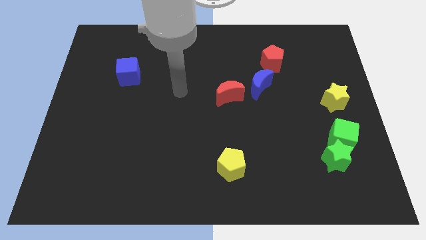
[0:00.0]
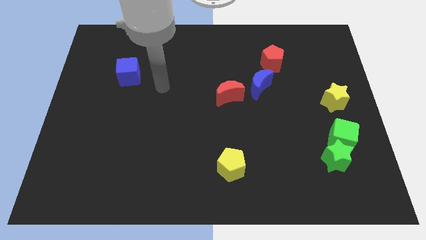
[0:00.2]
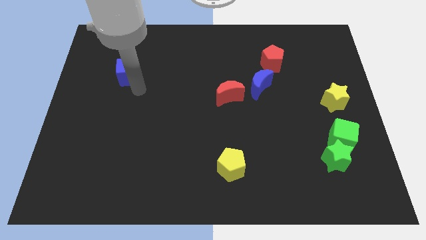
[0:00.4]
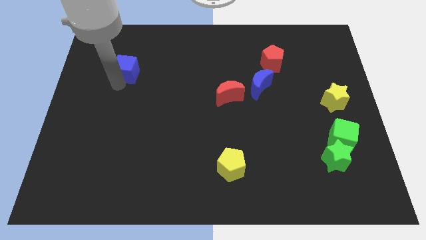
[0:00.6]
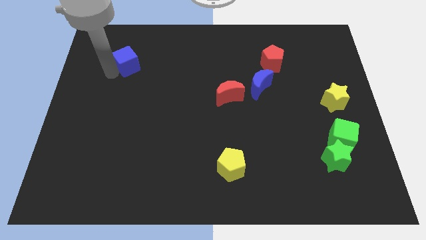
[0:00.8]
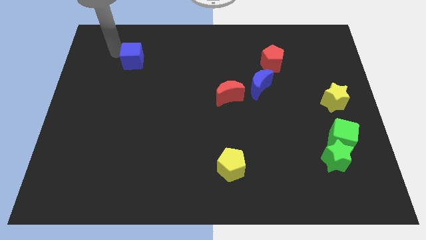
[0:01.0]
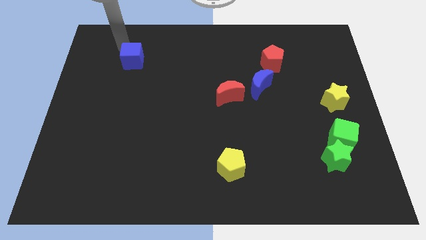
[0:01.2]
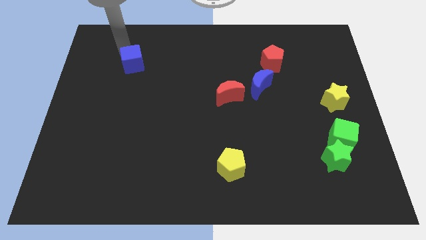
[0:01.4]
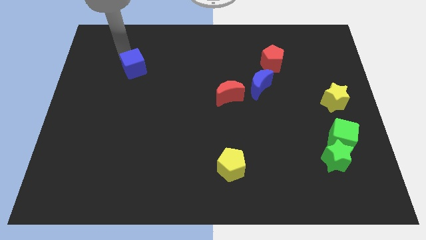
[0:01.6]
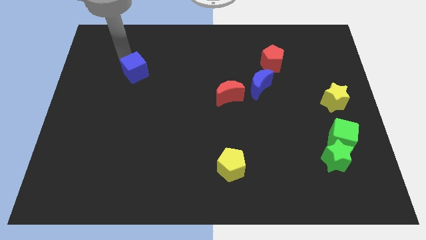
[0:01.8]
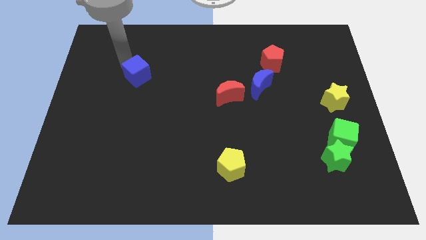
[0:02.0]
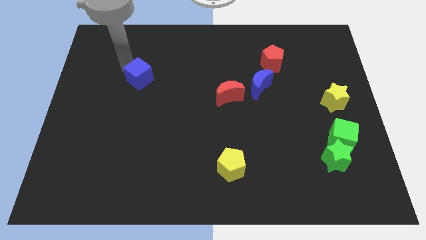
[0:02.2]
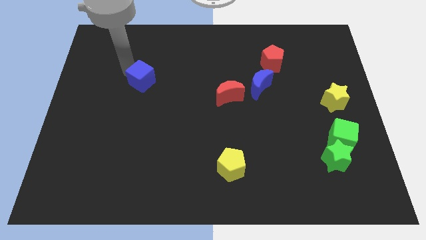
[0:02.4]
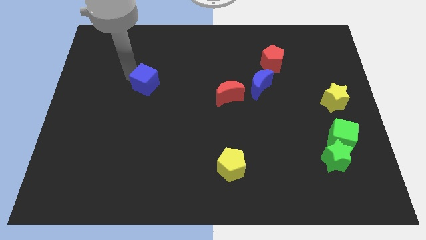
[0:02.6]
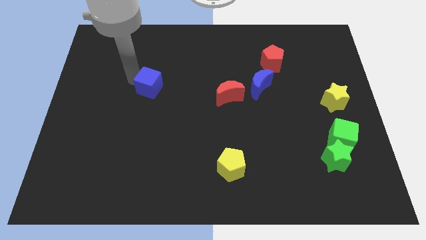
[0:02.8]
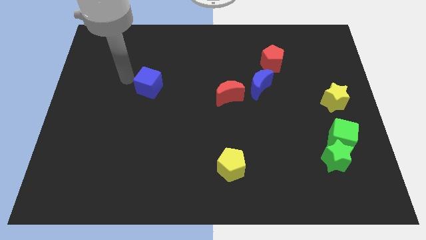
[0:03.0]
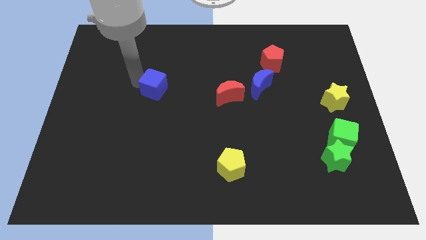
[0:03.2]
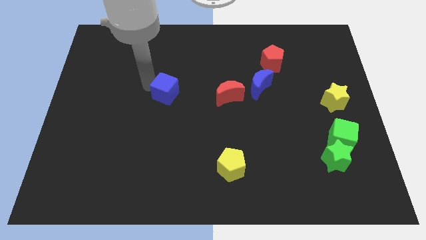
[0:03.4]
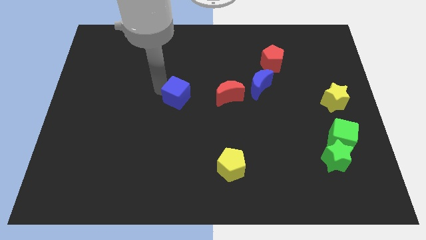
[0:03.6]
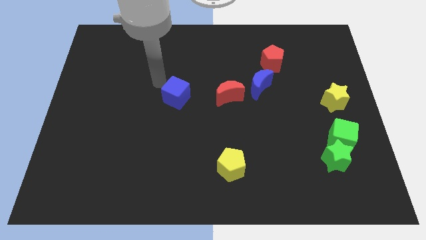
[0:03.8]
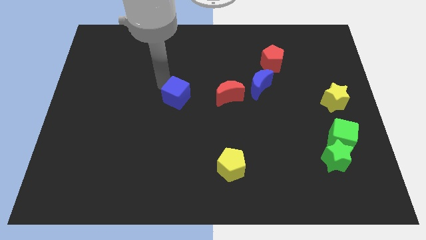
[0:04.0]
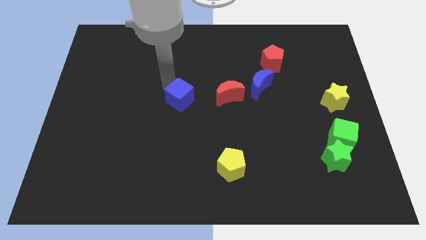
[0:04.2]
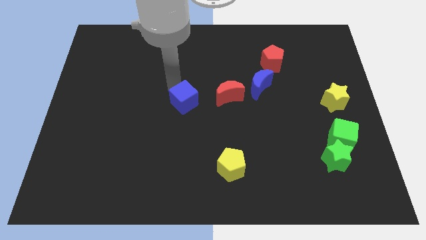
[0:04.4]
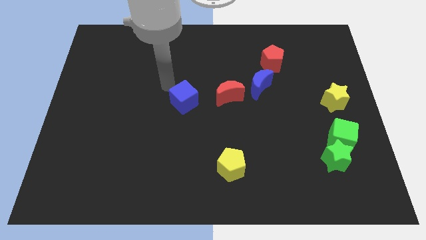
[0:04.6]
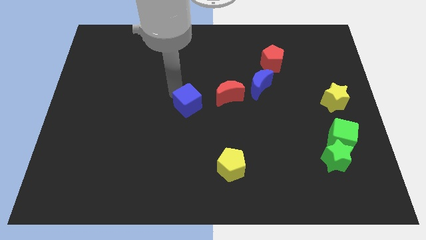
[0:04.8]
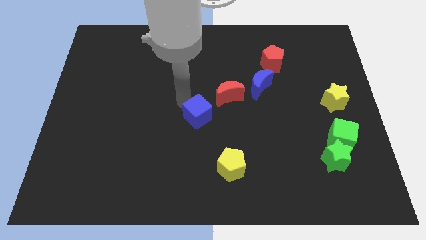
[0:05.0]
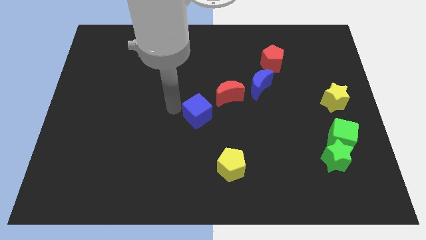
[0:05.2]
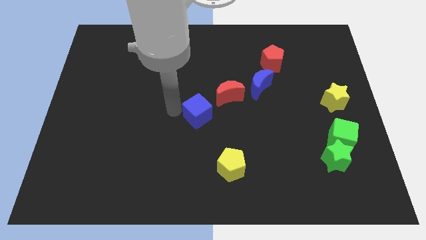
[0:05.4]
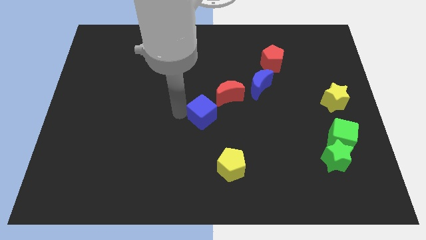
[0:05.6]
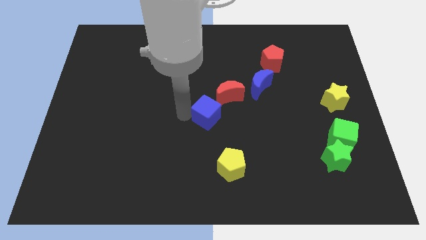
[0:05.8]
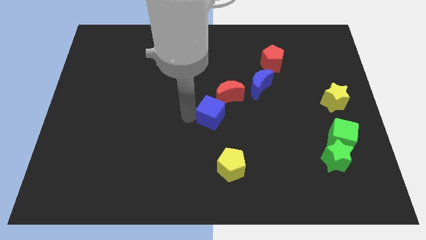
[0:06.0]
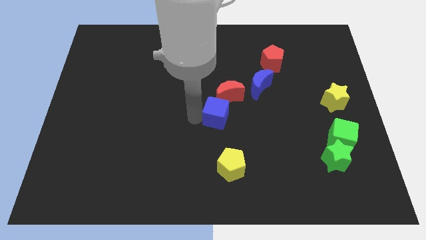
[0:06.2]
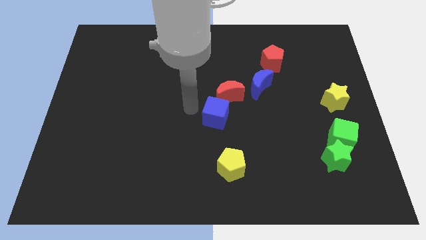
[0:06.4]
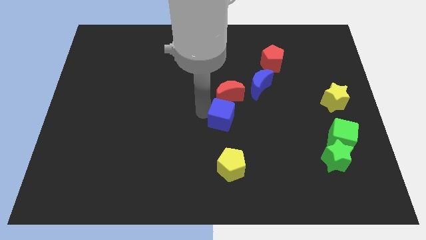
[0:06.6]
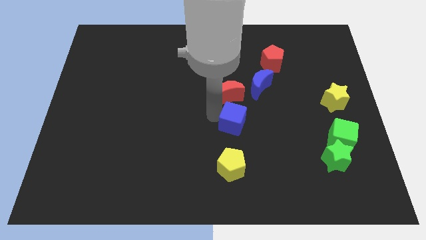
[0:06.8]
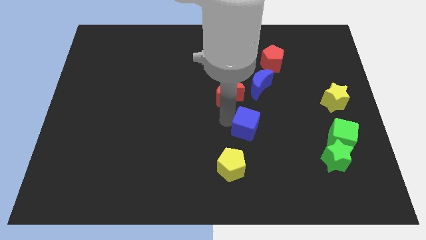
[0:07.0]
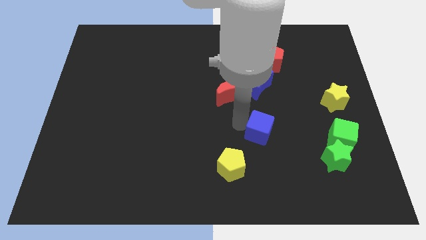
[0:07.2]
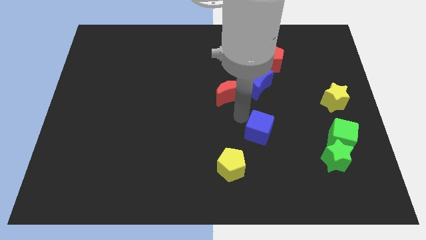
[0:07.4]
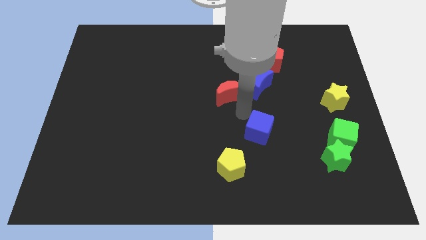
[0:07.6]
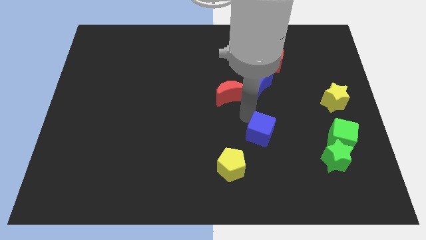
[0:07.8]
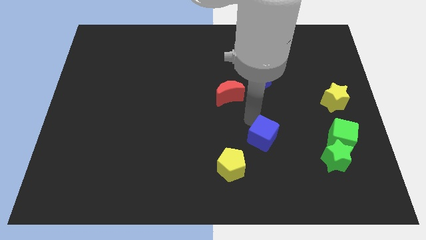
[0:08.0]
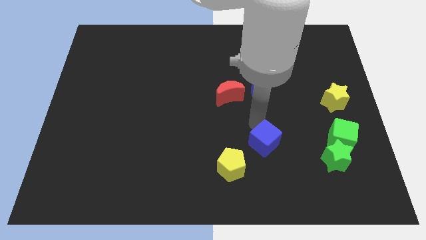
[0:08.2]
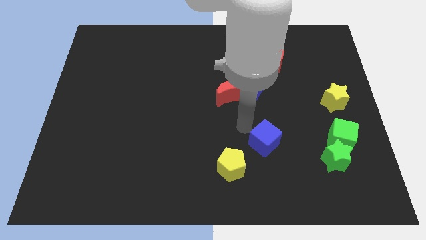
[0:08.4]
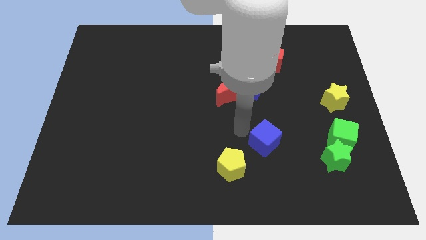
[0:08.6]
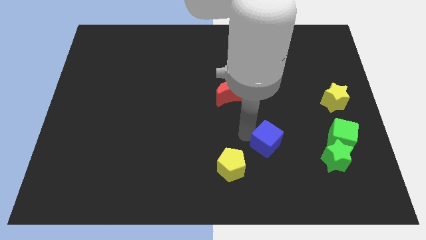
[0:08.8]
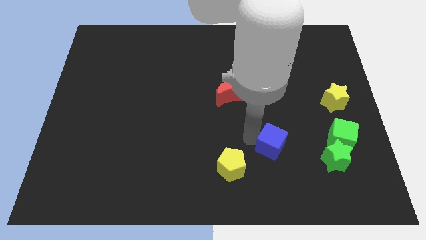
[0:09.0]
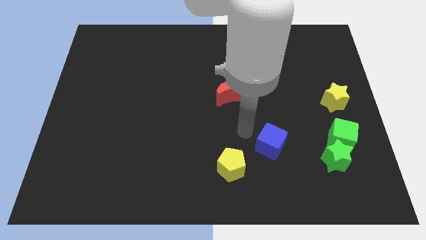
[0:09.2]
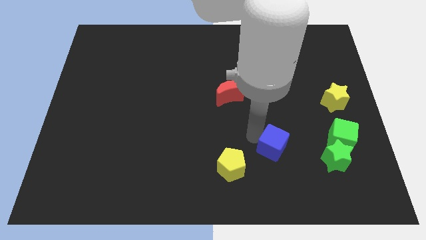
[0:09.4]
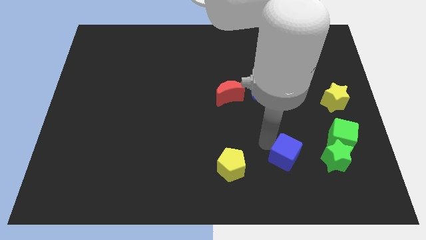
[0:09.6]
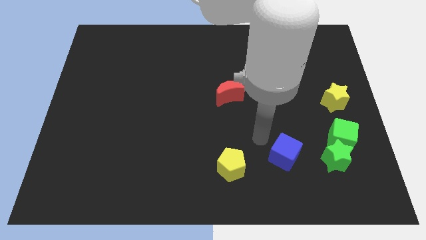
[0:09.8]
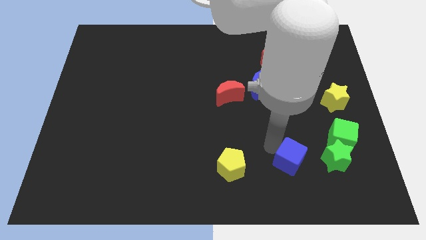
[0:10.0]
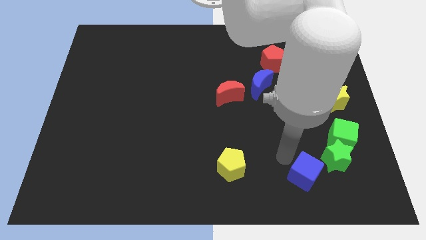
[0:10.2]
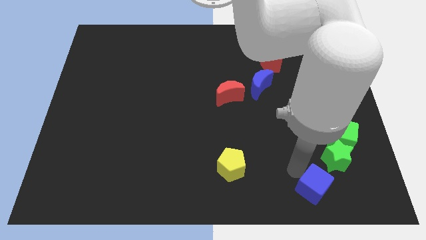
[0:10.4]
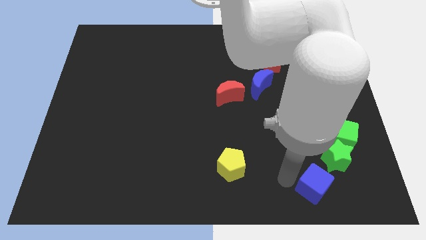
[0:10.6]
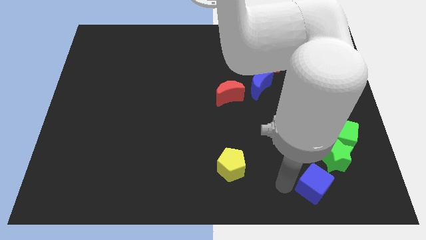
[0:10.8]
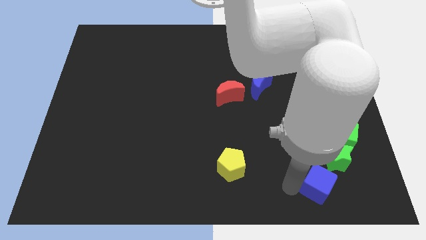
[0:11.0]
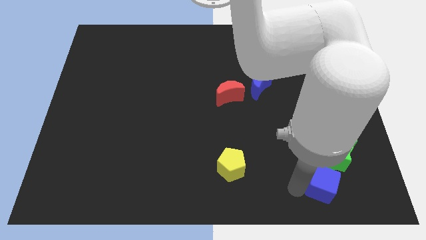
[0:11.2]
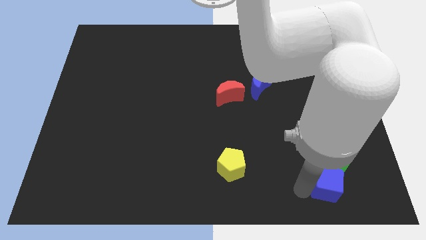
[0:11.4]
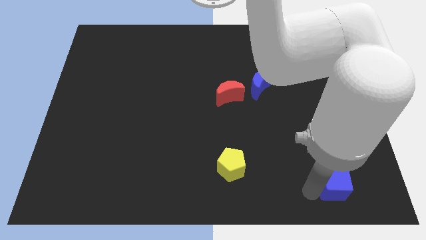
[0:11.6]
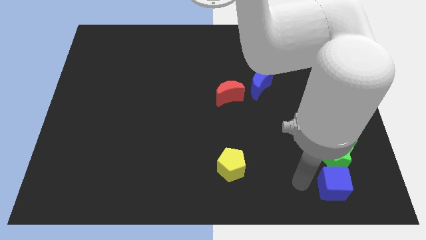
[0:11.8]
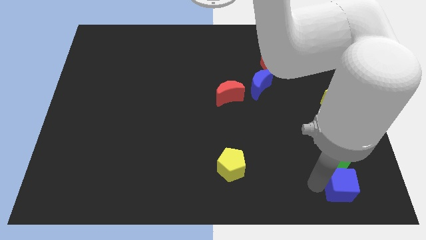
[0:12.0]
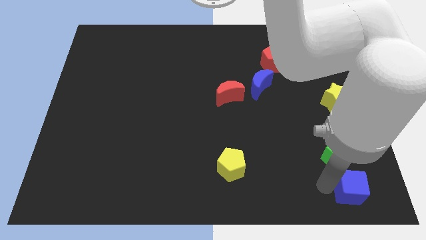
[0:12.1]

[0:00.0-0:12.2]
slide the blue cube to the bottom right of the board

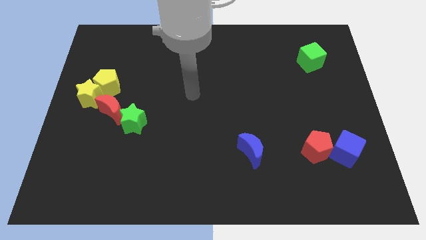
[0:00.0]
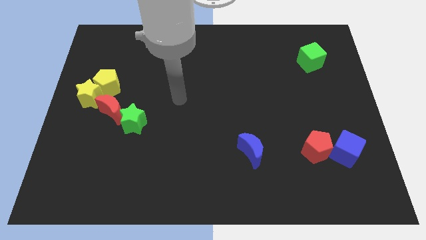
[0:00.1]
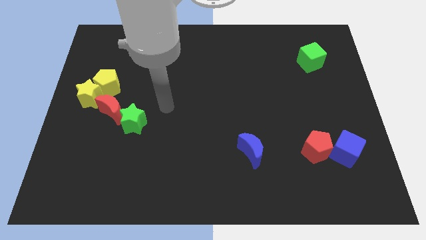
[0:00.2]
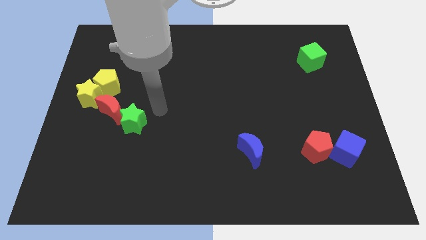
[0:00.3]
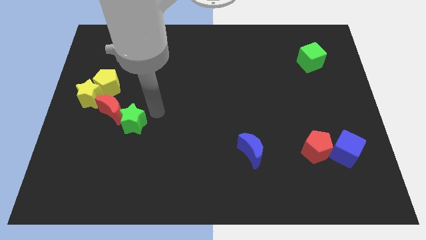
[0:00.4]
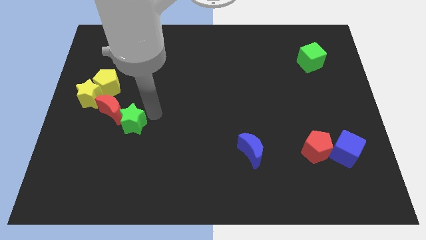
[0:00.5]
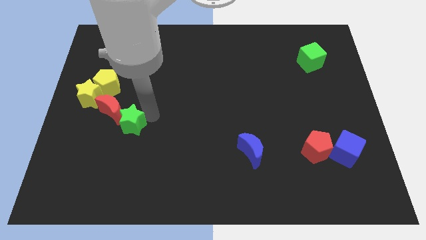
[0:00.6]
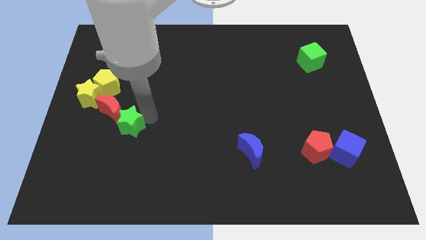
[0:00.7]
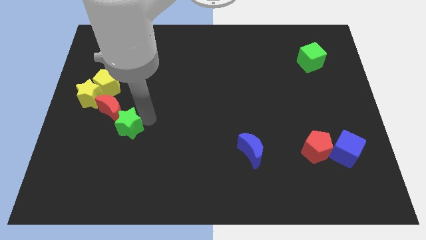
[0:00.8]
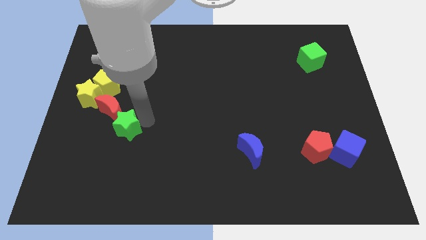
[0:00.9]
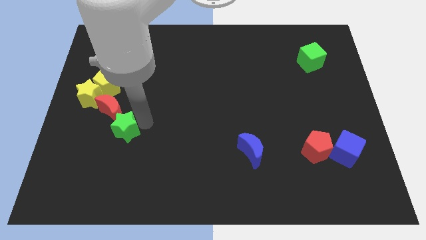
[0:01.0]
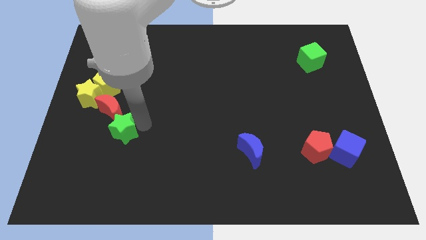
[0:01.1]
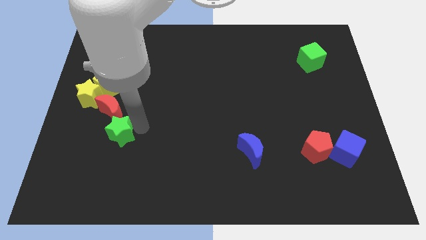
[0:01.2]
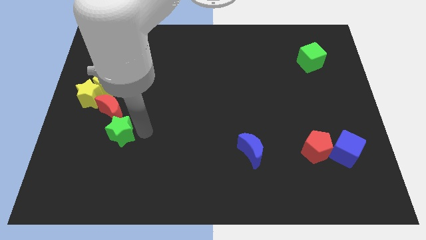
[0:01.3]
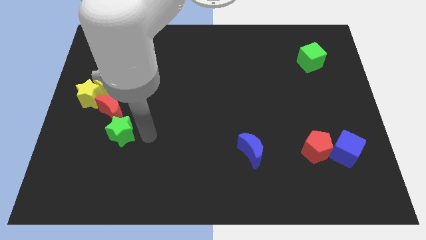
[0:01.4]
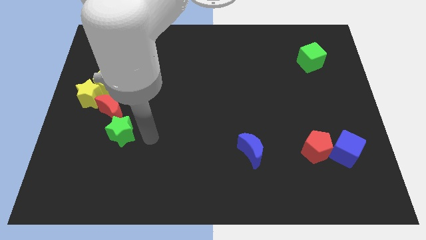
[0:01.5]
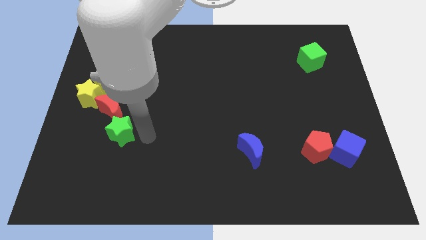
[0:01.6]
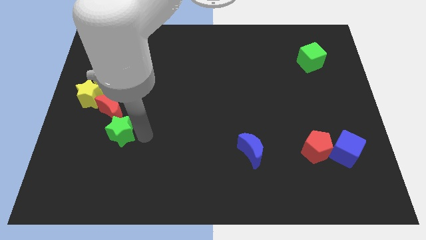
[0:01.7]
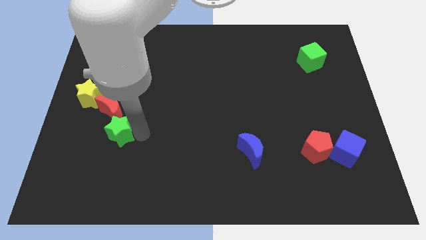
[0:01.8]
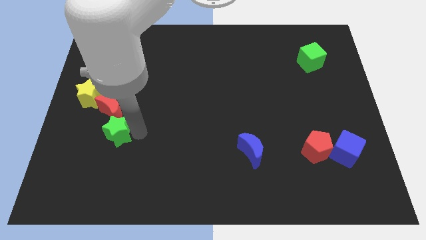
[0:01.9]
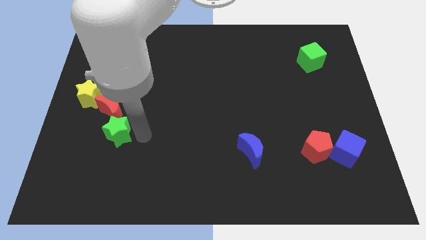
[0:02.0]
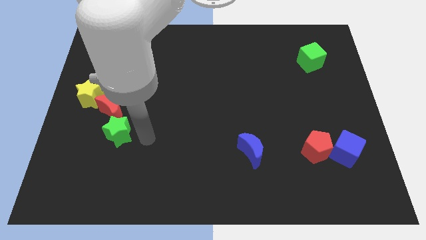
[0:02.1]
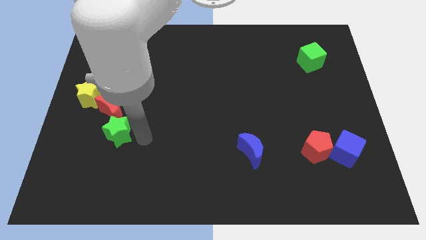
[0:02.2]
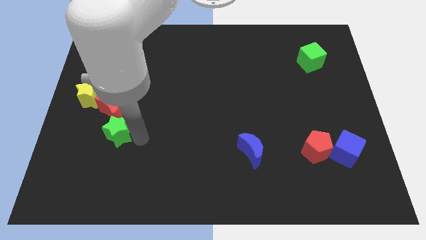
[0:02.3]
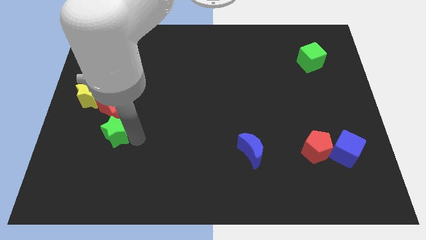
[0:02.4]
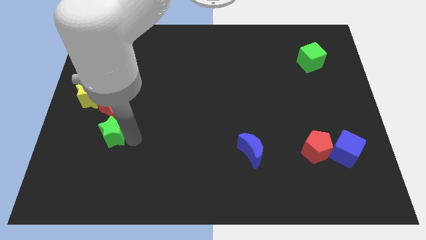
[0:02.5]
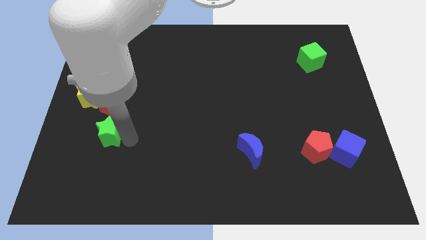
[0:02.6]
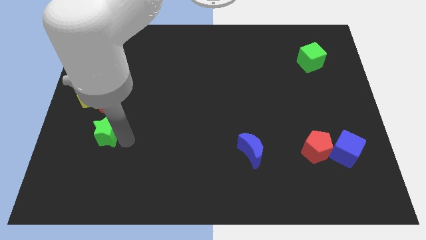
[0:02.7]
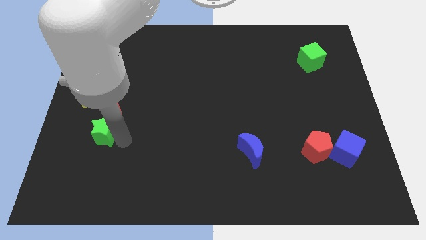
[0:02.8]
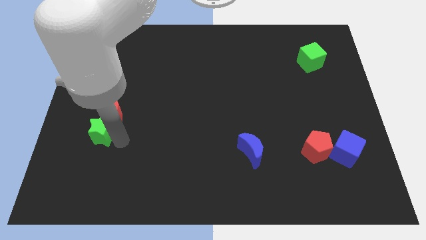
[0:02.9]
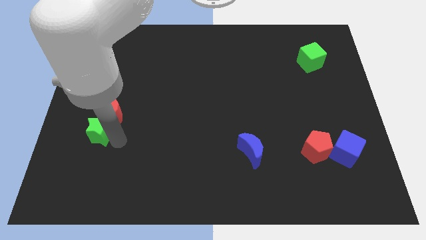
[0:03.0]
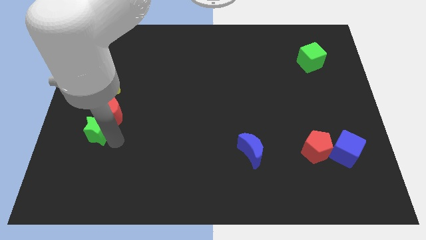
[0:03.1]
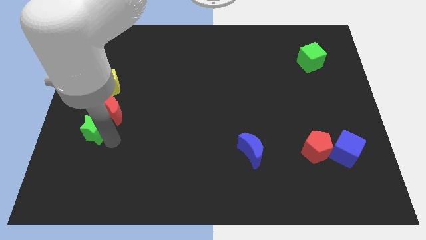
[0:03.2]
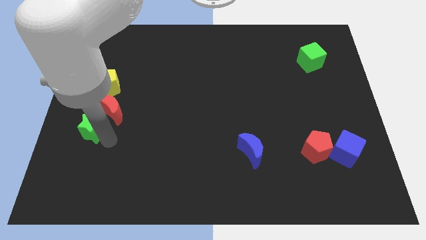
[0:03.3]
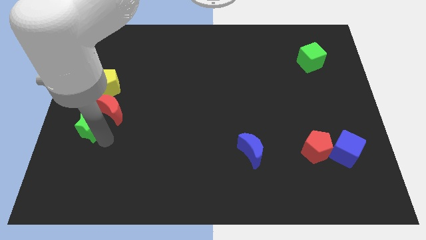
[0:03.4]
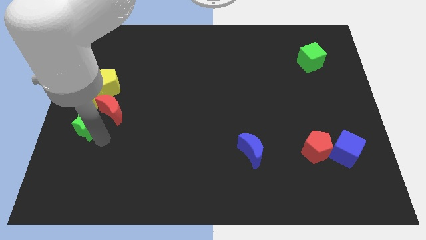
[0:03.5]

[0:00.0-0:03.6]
put the green star to the left side of the board
